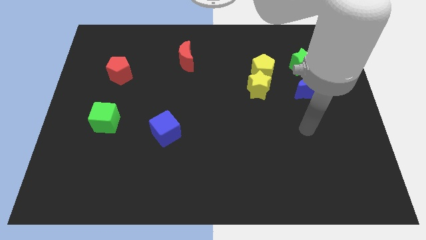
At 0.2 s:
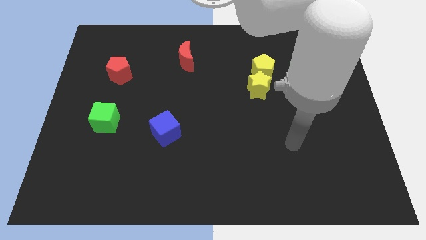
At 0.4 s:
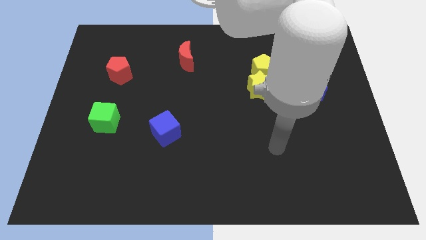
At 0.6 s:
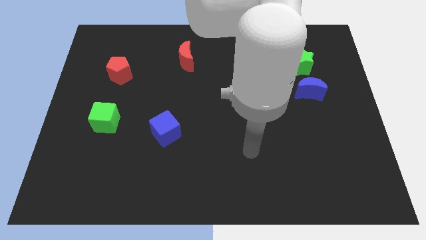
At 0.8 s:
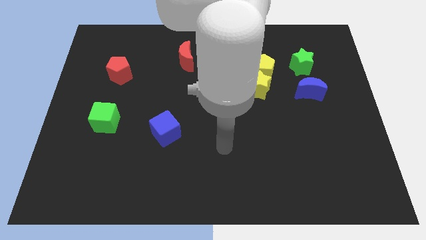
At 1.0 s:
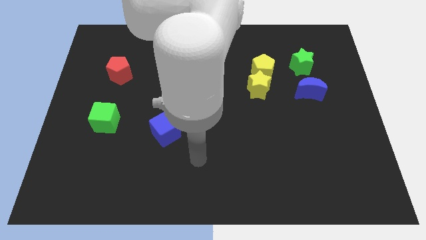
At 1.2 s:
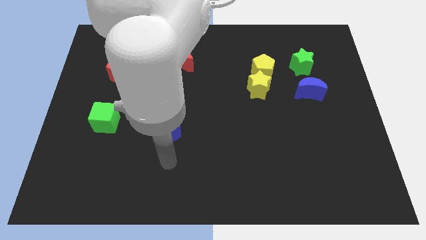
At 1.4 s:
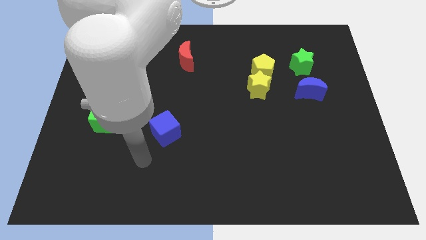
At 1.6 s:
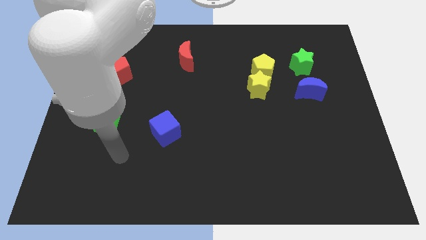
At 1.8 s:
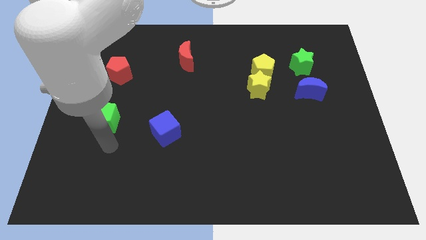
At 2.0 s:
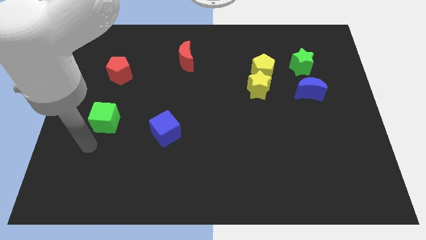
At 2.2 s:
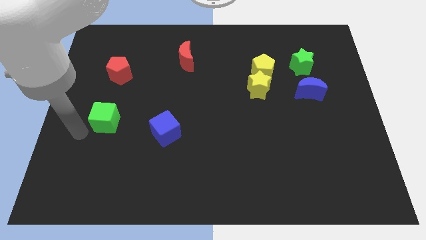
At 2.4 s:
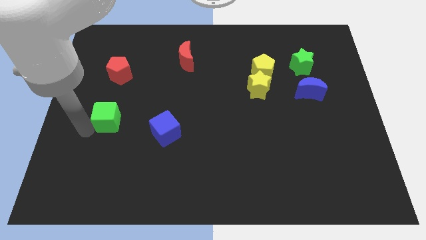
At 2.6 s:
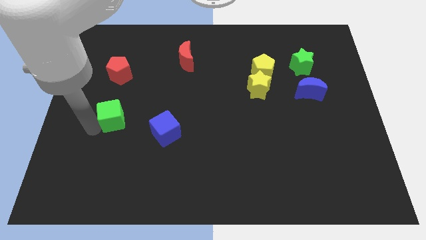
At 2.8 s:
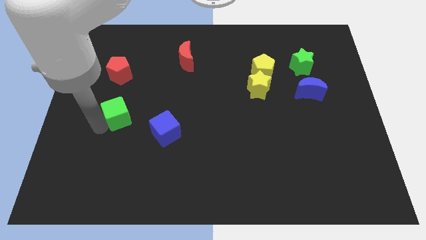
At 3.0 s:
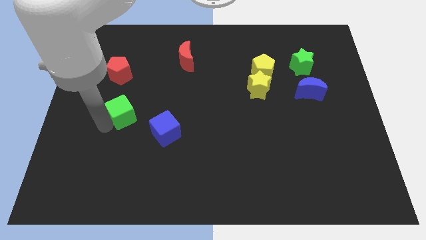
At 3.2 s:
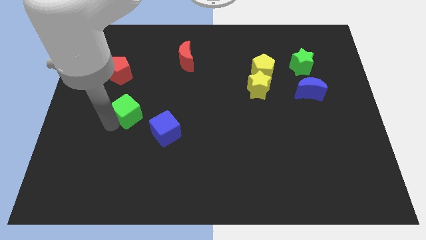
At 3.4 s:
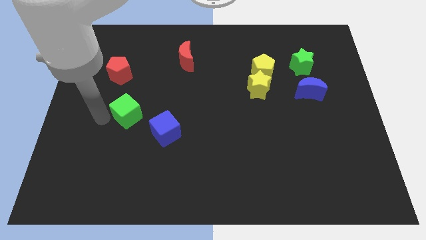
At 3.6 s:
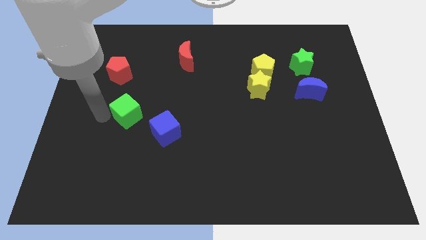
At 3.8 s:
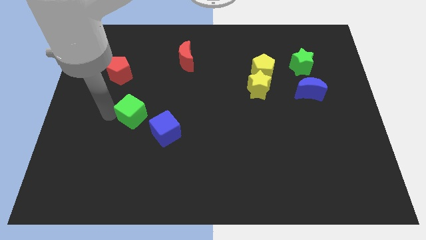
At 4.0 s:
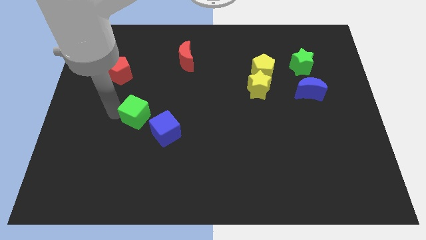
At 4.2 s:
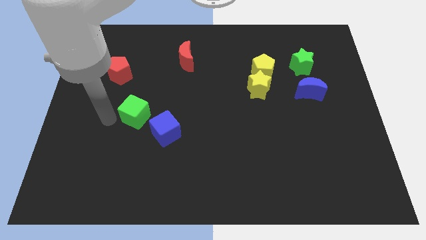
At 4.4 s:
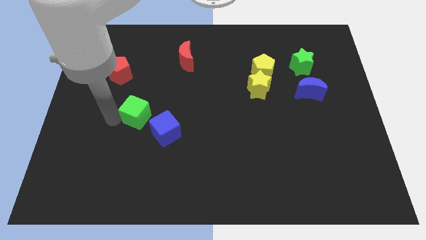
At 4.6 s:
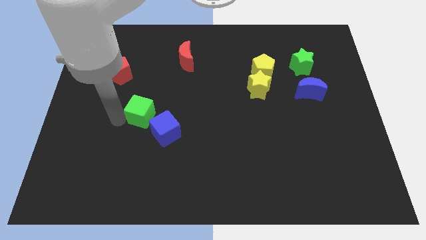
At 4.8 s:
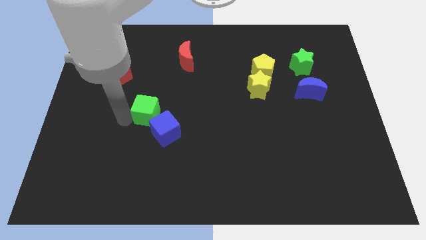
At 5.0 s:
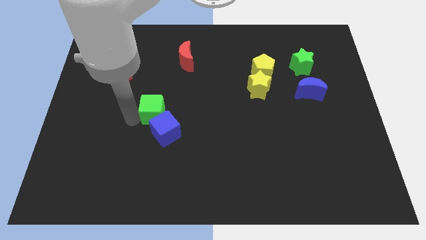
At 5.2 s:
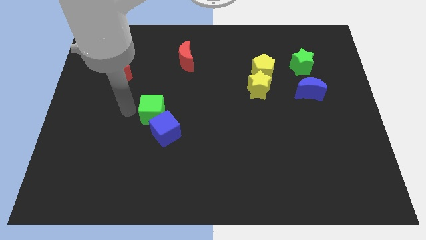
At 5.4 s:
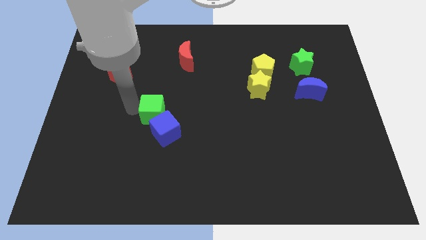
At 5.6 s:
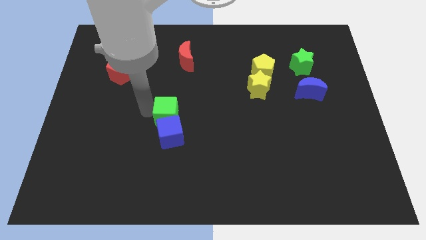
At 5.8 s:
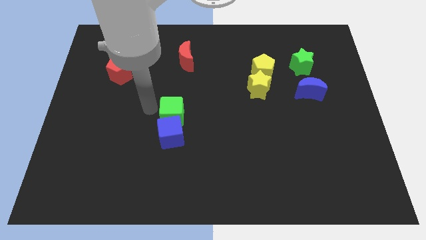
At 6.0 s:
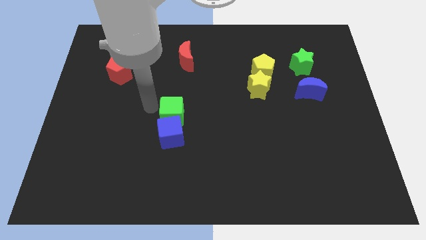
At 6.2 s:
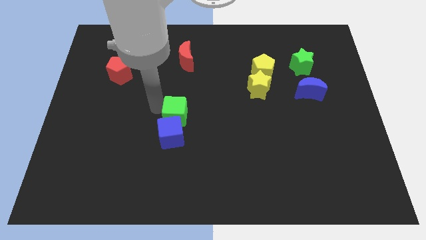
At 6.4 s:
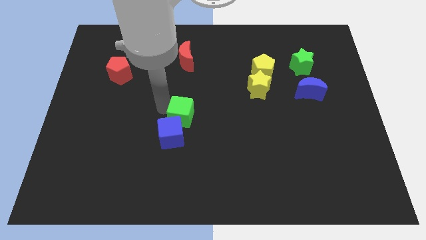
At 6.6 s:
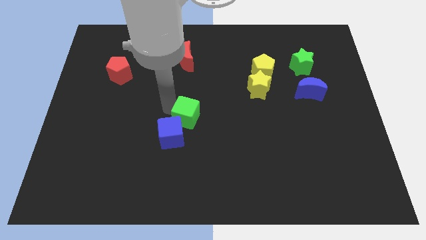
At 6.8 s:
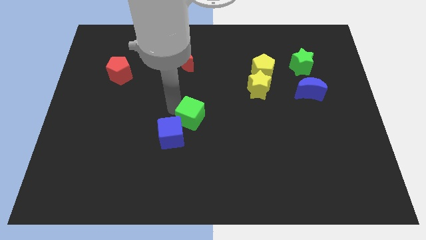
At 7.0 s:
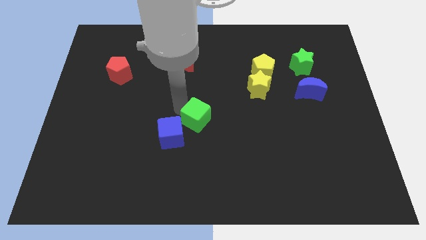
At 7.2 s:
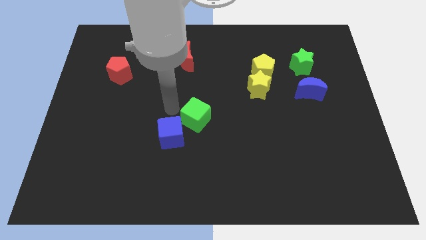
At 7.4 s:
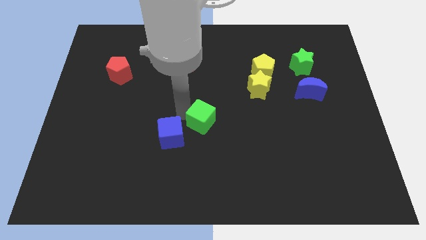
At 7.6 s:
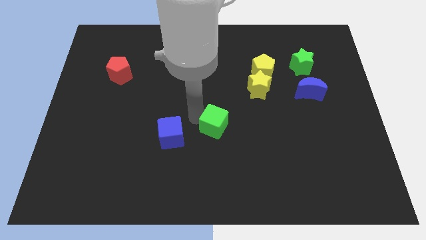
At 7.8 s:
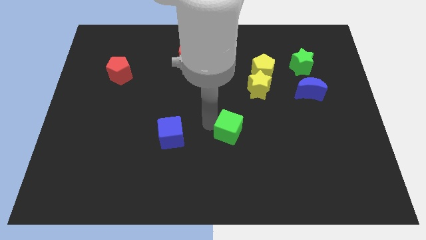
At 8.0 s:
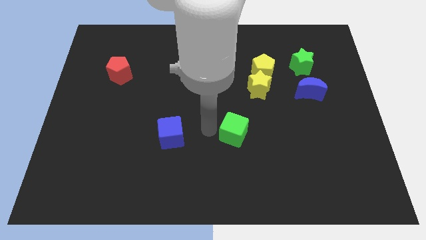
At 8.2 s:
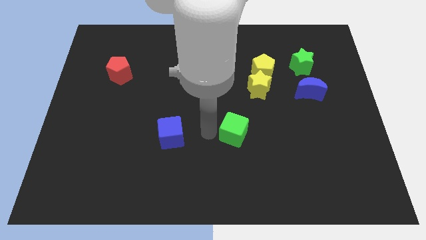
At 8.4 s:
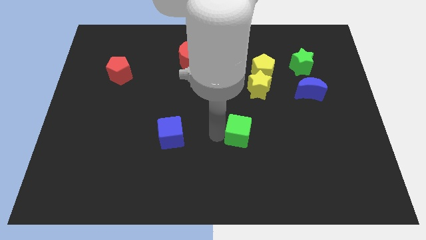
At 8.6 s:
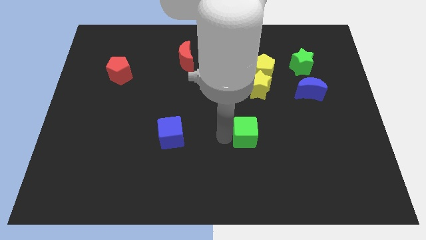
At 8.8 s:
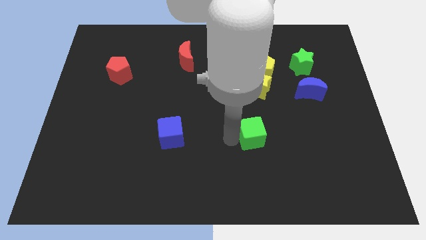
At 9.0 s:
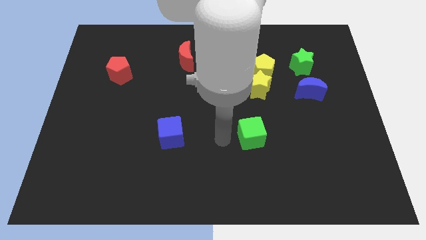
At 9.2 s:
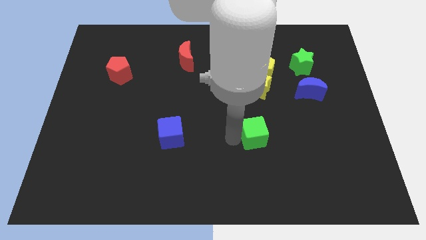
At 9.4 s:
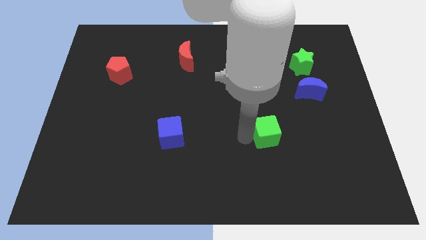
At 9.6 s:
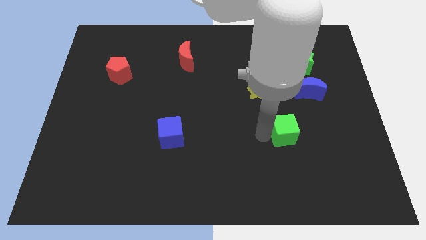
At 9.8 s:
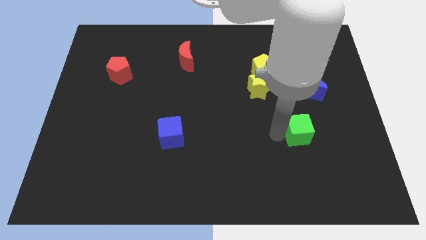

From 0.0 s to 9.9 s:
move the green cube below the blue moon

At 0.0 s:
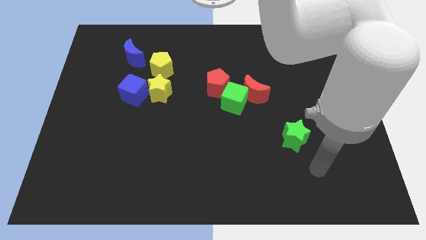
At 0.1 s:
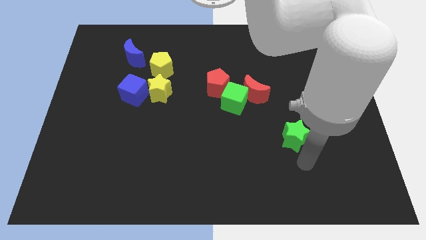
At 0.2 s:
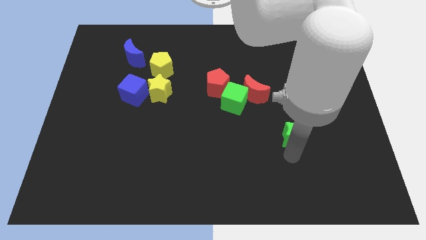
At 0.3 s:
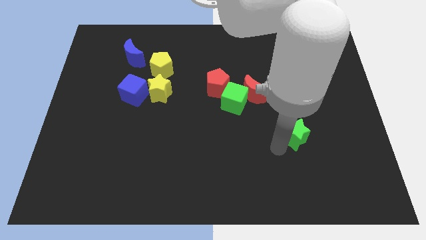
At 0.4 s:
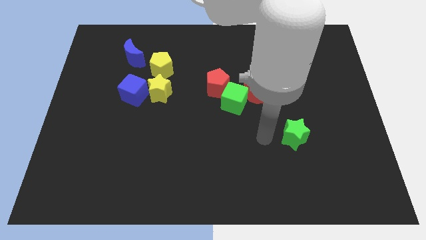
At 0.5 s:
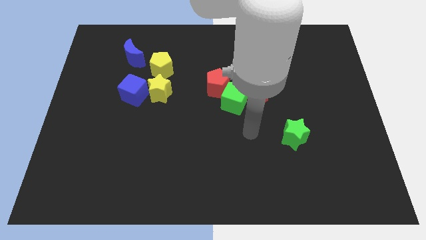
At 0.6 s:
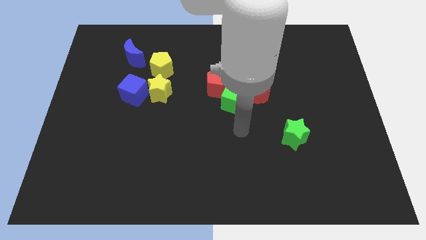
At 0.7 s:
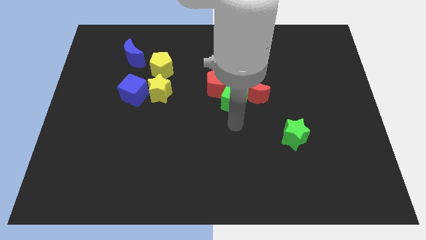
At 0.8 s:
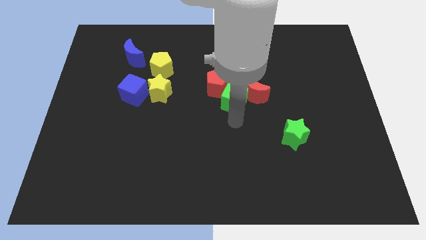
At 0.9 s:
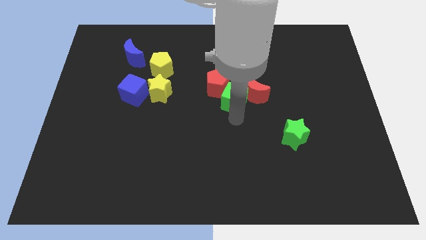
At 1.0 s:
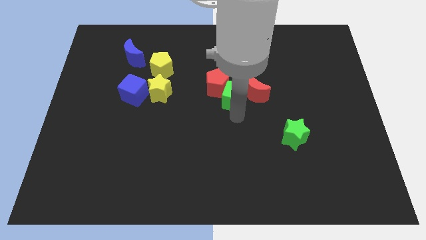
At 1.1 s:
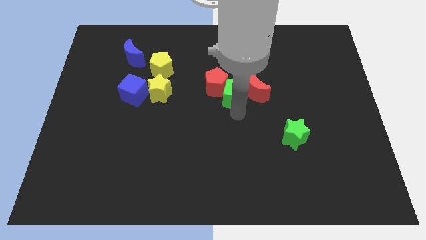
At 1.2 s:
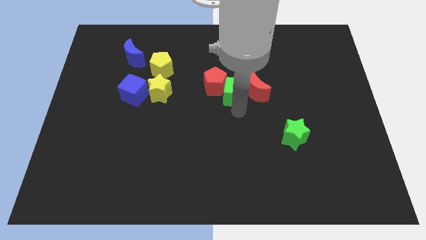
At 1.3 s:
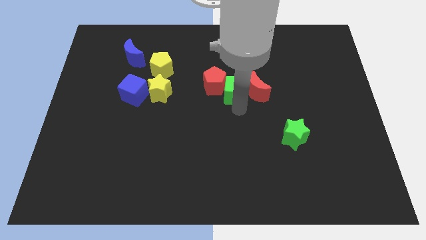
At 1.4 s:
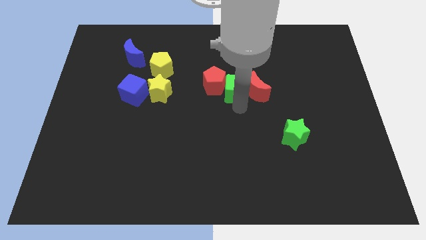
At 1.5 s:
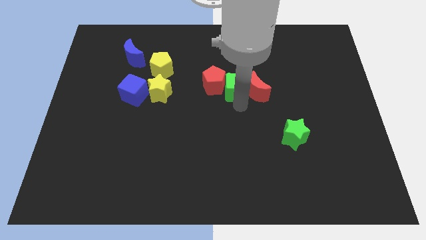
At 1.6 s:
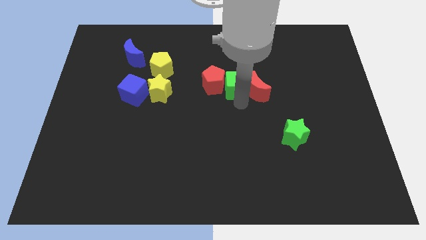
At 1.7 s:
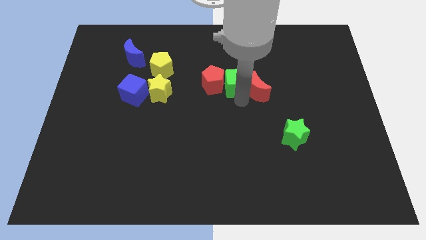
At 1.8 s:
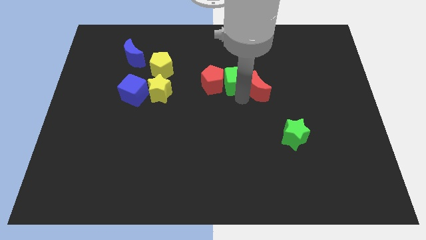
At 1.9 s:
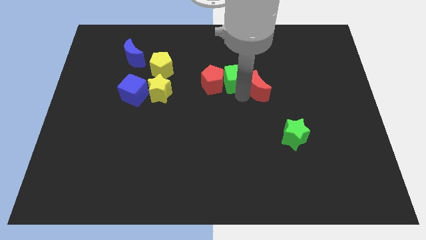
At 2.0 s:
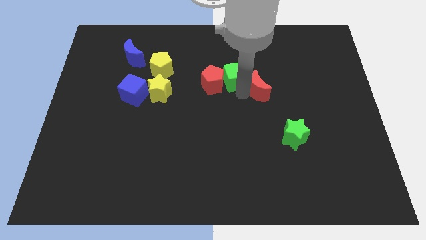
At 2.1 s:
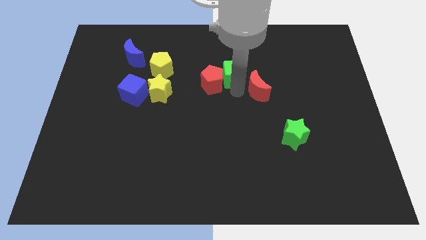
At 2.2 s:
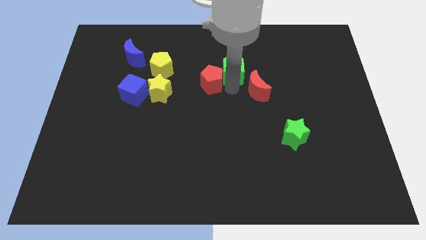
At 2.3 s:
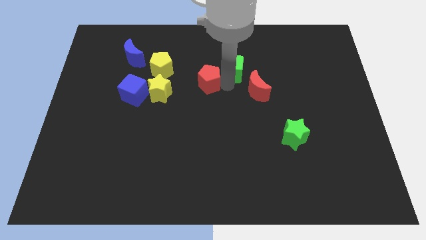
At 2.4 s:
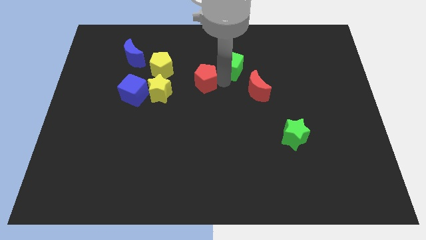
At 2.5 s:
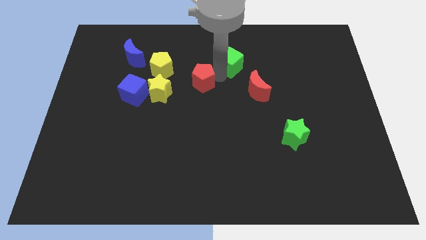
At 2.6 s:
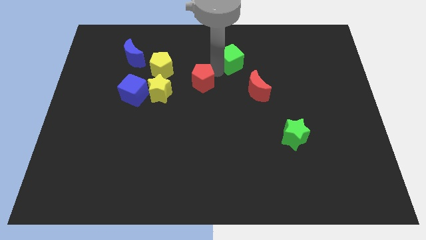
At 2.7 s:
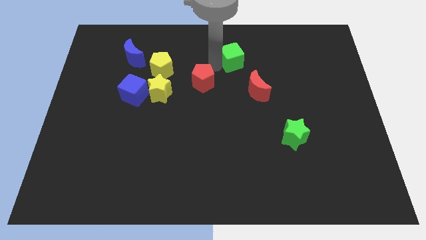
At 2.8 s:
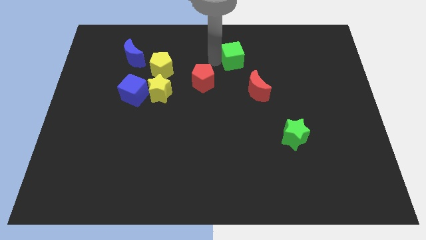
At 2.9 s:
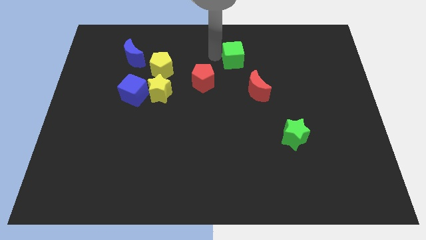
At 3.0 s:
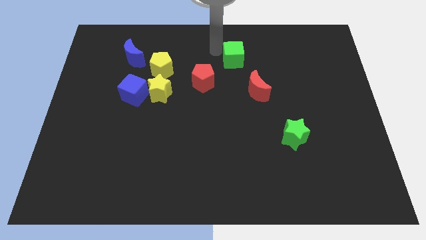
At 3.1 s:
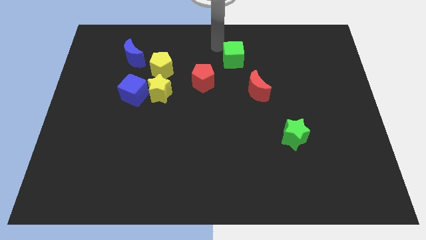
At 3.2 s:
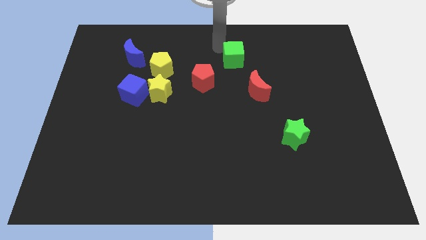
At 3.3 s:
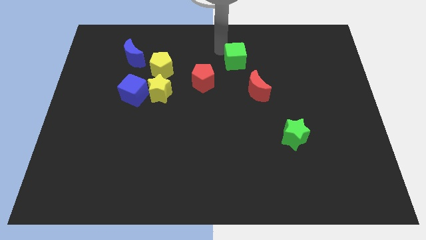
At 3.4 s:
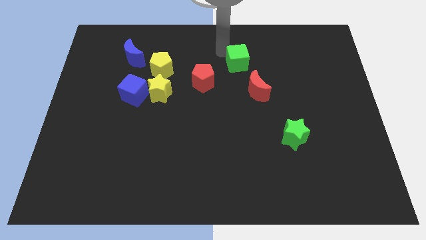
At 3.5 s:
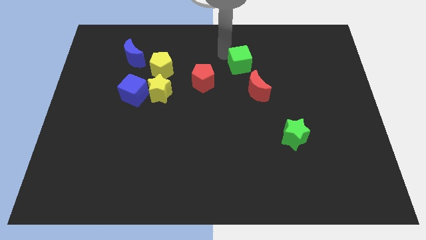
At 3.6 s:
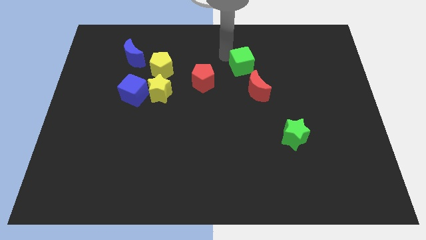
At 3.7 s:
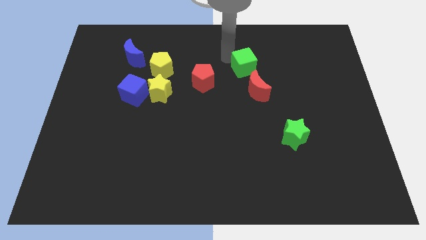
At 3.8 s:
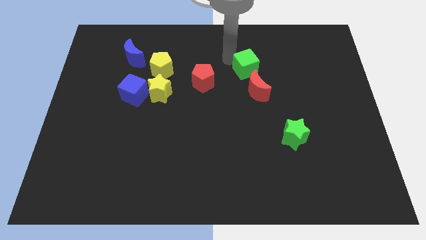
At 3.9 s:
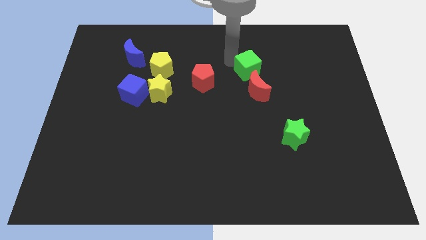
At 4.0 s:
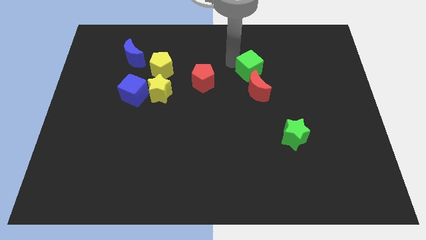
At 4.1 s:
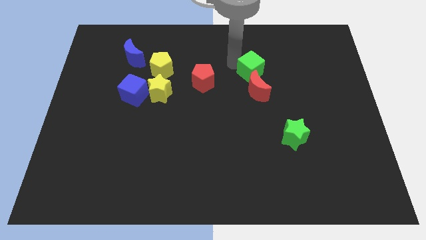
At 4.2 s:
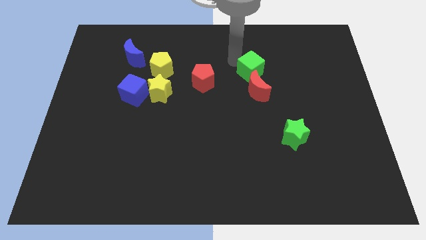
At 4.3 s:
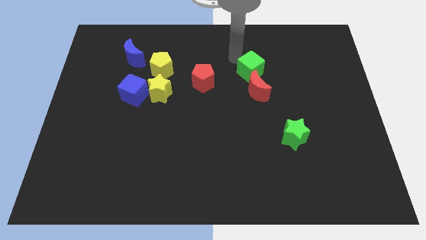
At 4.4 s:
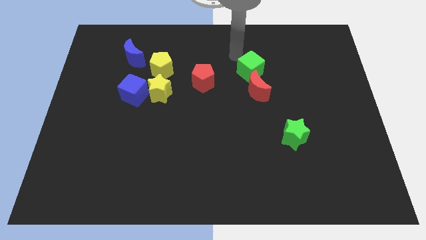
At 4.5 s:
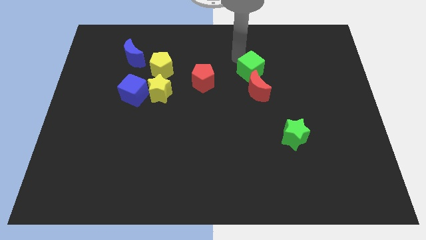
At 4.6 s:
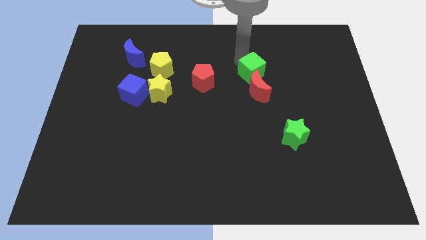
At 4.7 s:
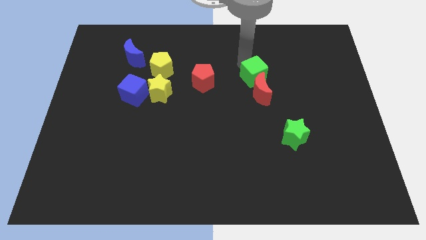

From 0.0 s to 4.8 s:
move the green cube diagonally up and to the right of the red moon
